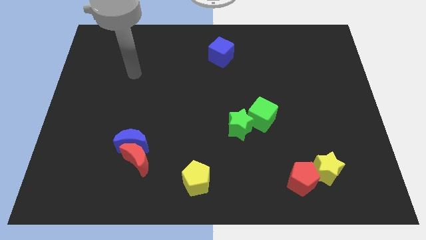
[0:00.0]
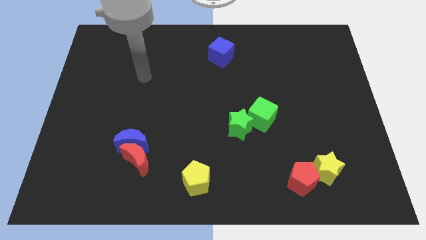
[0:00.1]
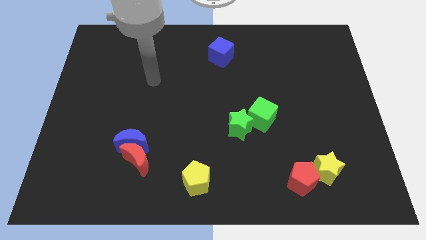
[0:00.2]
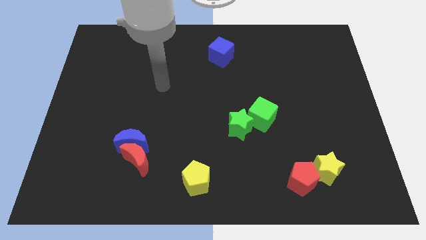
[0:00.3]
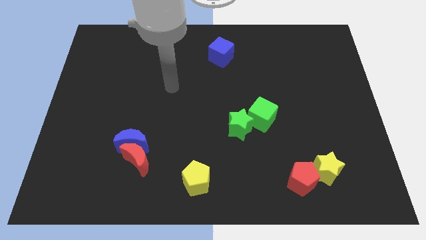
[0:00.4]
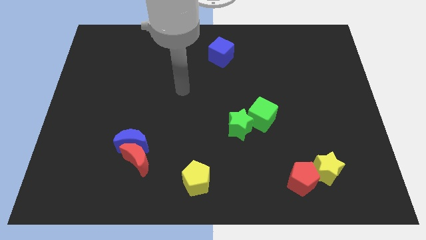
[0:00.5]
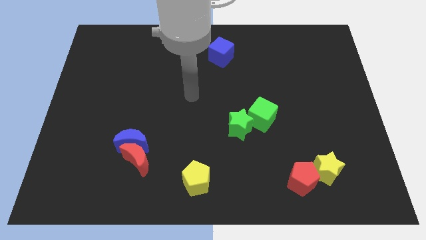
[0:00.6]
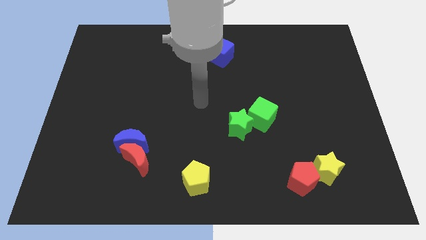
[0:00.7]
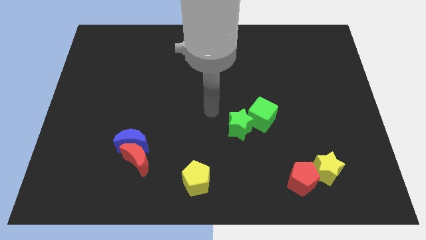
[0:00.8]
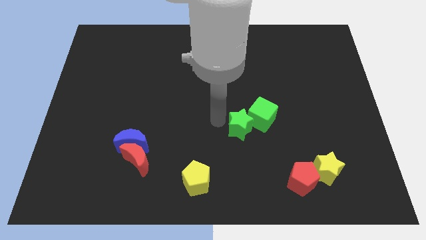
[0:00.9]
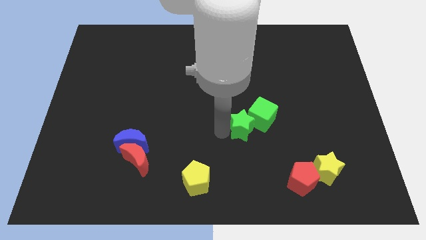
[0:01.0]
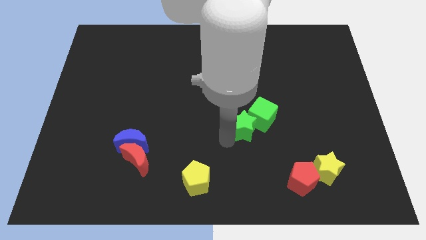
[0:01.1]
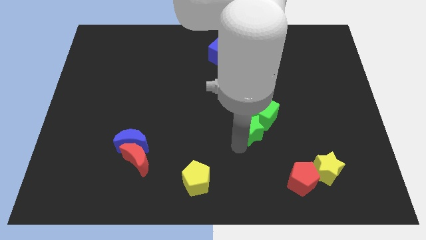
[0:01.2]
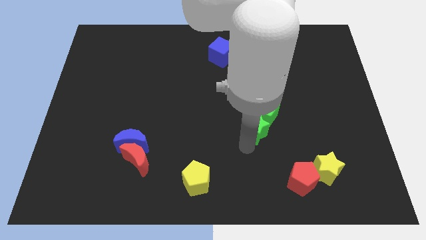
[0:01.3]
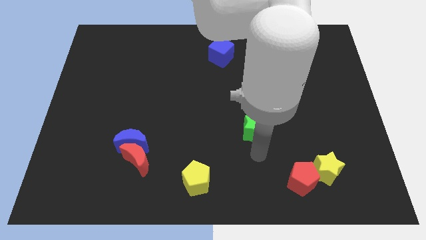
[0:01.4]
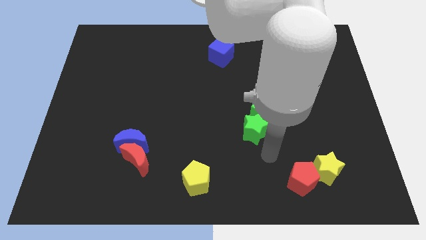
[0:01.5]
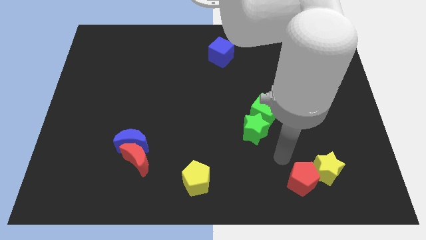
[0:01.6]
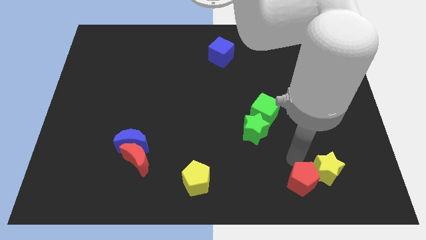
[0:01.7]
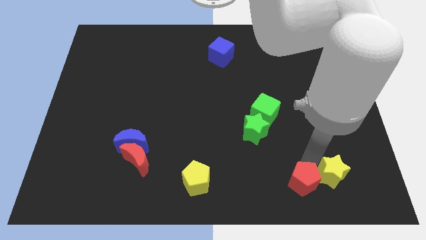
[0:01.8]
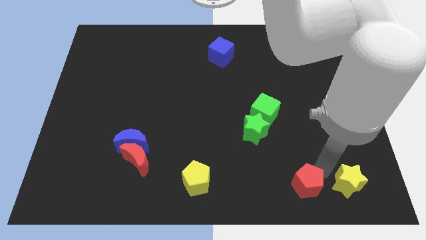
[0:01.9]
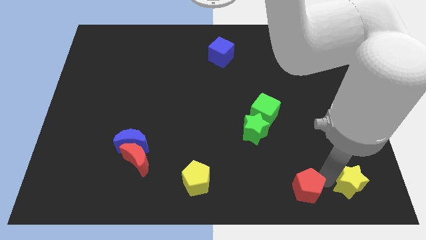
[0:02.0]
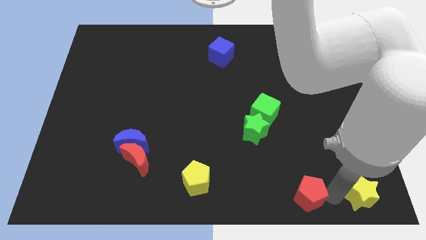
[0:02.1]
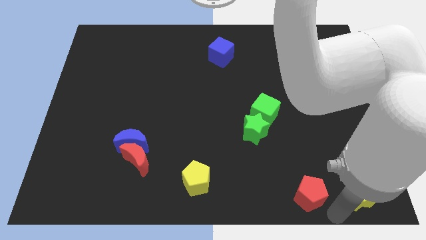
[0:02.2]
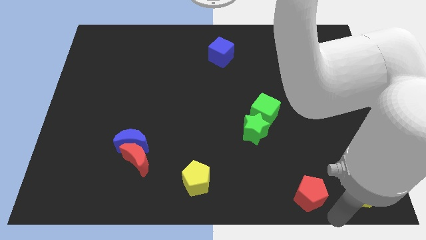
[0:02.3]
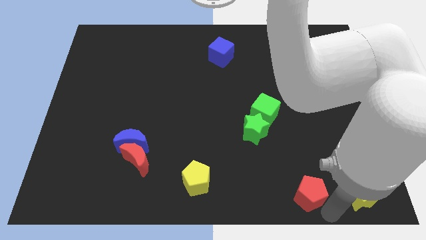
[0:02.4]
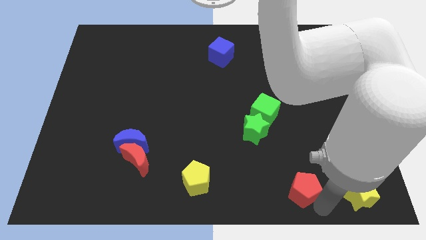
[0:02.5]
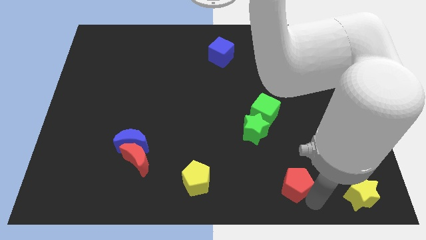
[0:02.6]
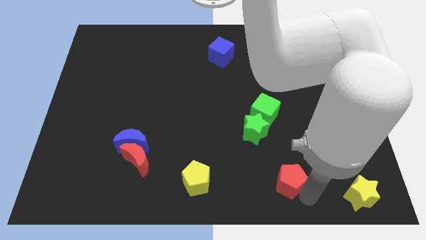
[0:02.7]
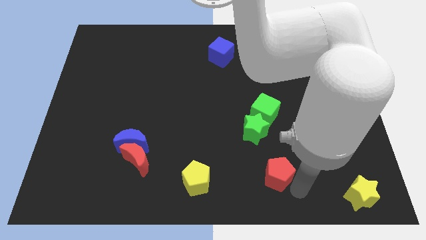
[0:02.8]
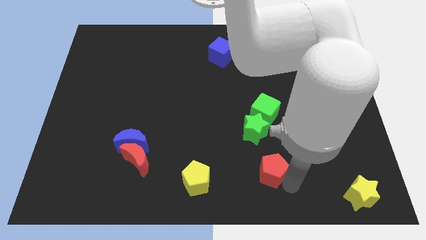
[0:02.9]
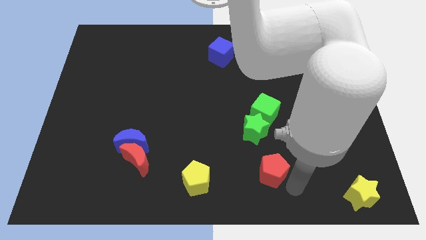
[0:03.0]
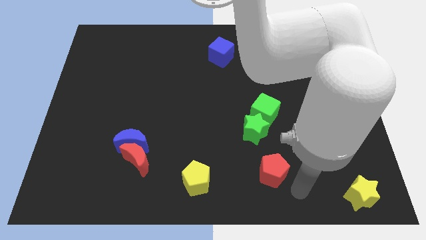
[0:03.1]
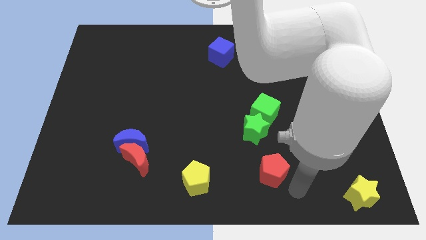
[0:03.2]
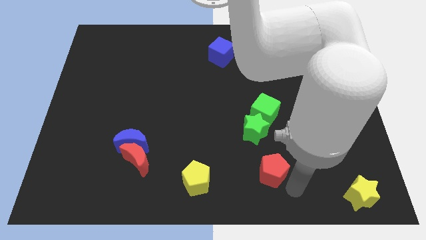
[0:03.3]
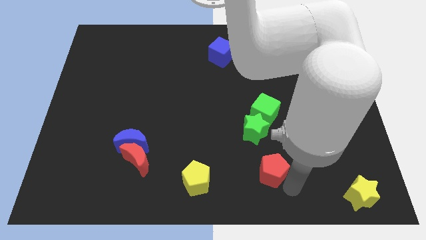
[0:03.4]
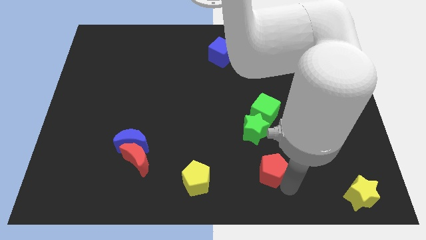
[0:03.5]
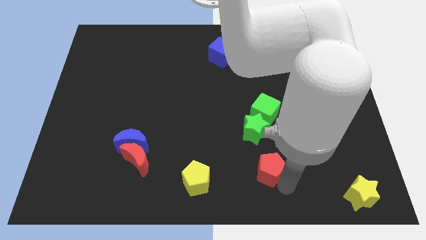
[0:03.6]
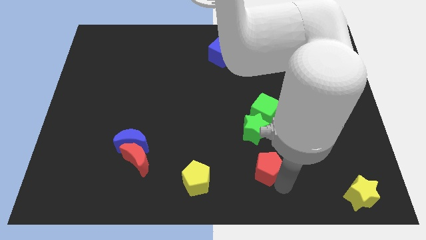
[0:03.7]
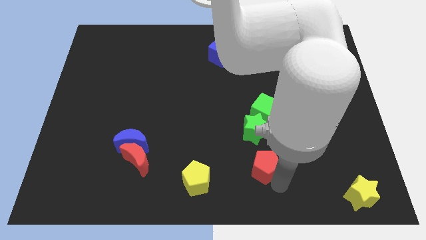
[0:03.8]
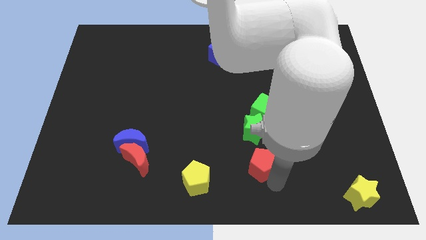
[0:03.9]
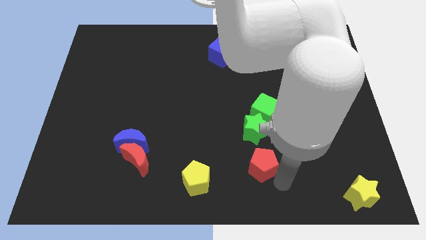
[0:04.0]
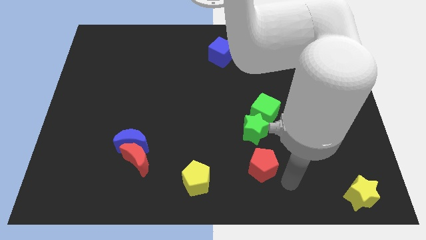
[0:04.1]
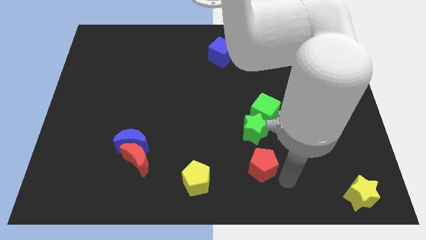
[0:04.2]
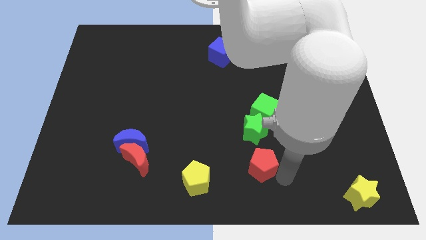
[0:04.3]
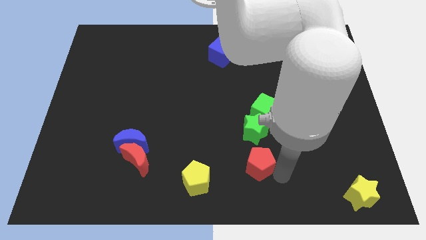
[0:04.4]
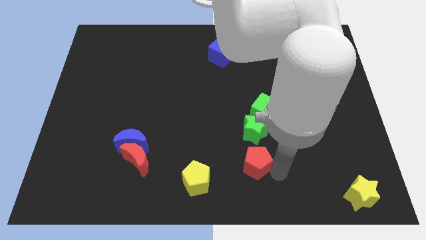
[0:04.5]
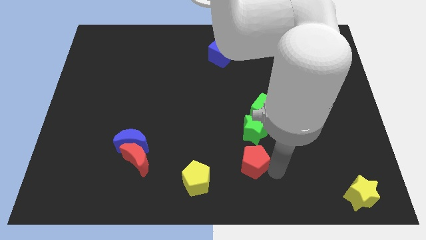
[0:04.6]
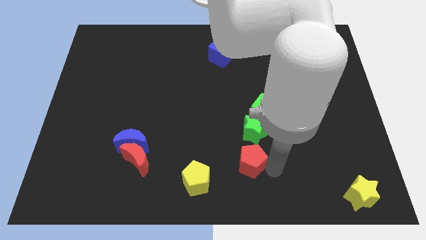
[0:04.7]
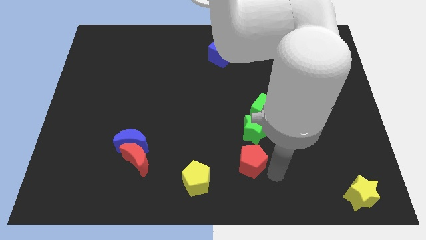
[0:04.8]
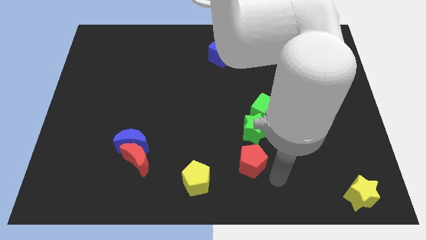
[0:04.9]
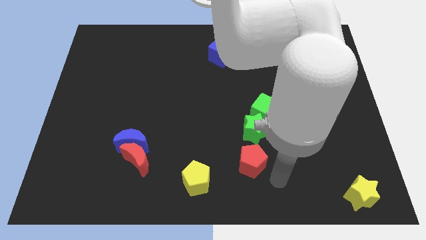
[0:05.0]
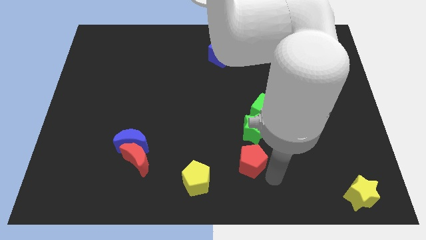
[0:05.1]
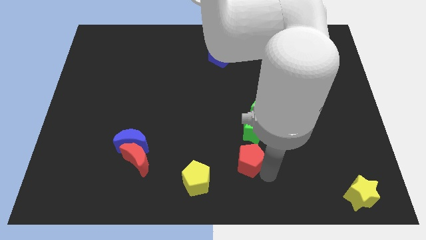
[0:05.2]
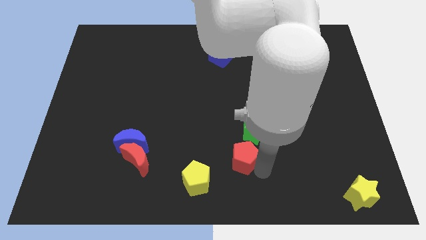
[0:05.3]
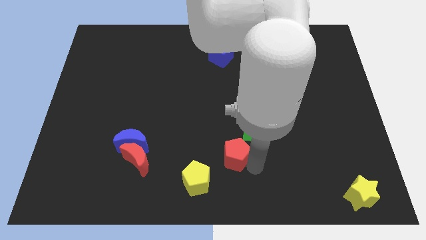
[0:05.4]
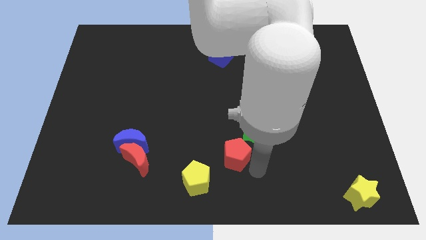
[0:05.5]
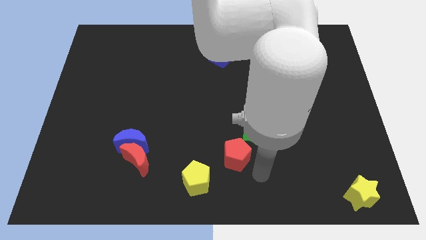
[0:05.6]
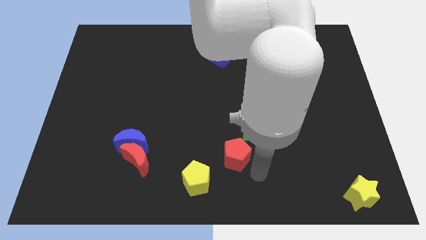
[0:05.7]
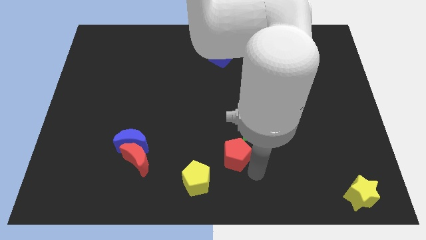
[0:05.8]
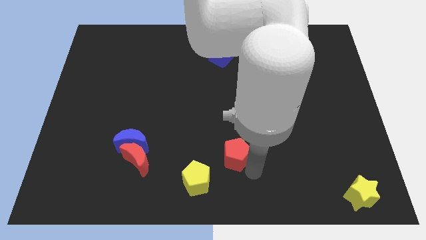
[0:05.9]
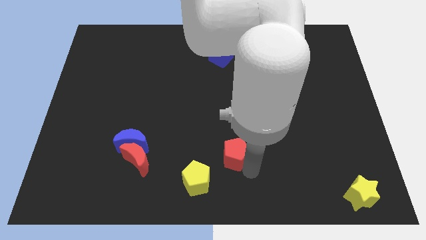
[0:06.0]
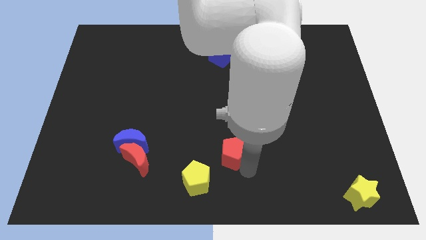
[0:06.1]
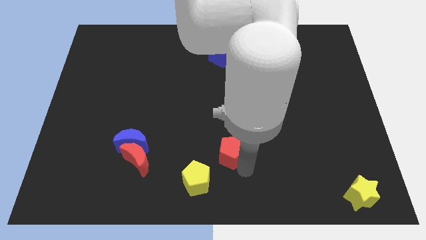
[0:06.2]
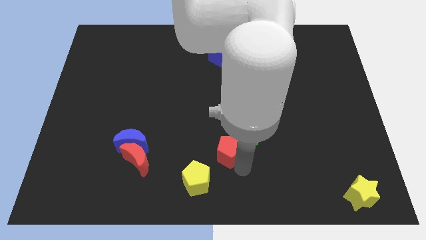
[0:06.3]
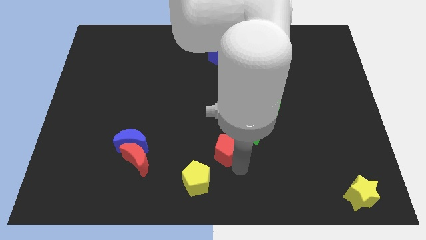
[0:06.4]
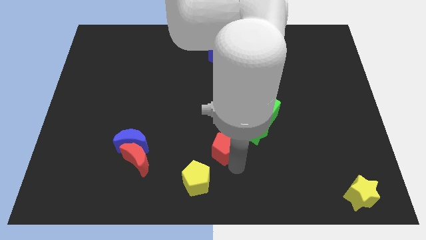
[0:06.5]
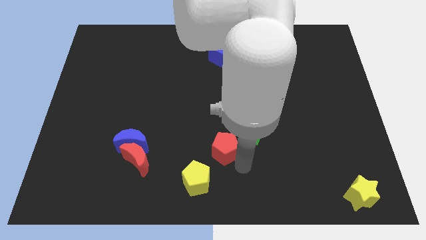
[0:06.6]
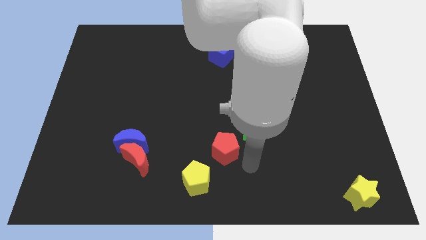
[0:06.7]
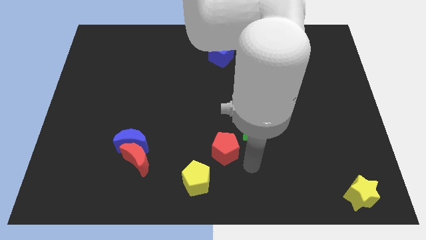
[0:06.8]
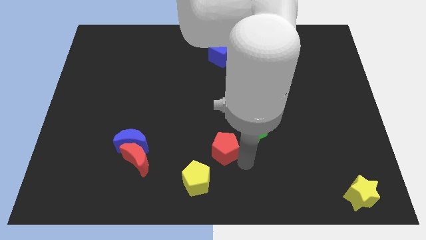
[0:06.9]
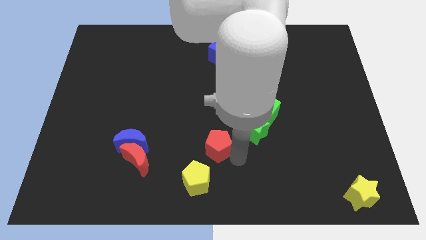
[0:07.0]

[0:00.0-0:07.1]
slide the red pentagon above the yellow pentagon
